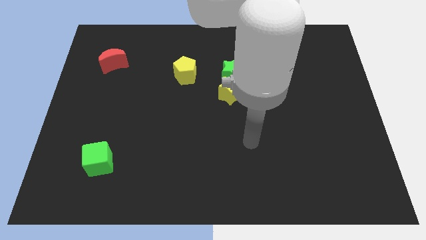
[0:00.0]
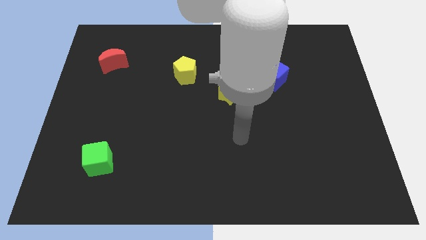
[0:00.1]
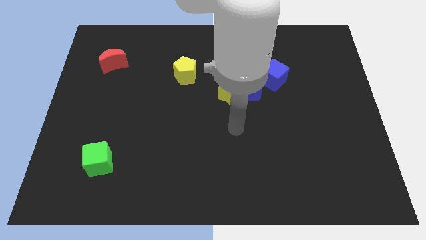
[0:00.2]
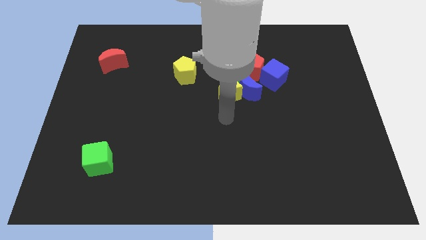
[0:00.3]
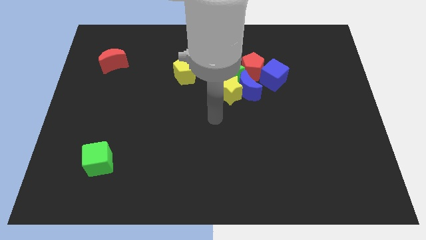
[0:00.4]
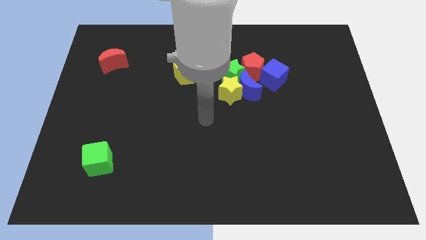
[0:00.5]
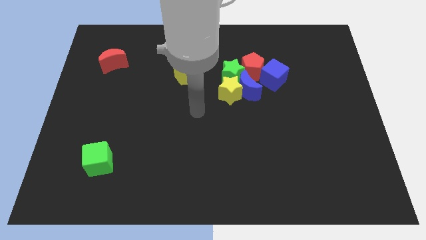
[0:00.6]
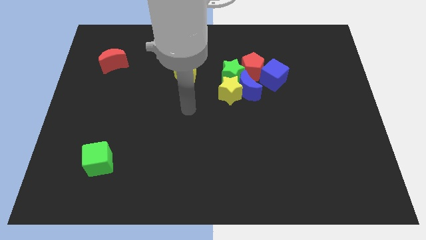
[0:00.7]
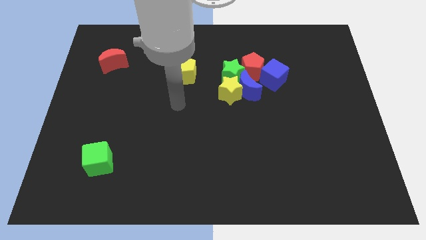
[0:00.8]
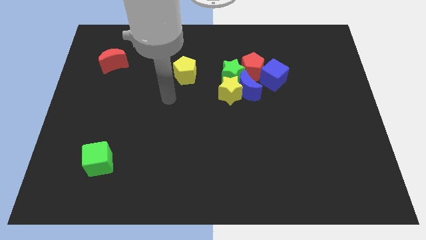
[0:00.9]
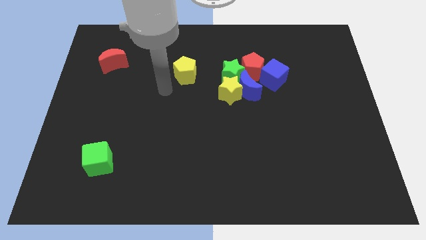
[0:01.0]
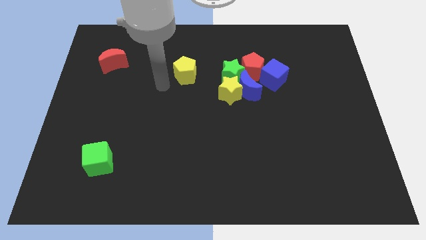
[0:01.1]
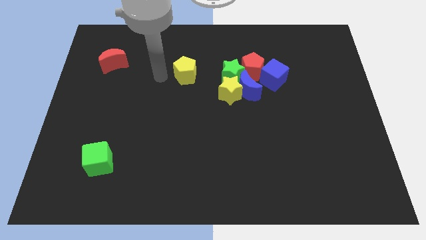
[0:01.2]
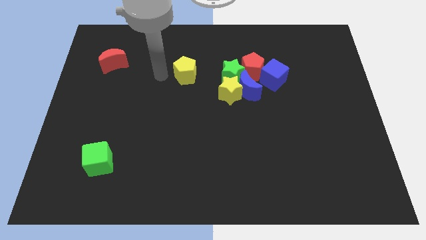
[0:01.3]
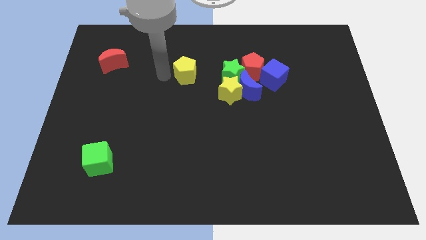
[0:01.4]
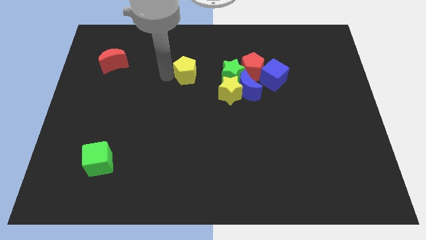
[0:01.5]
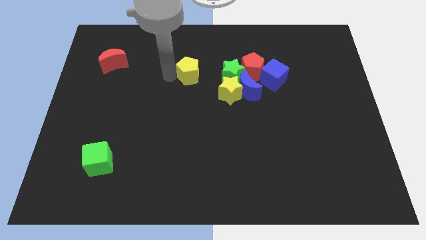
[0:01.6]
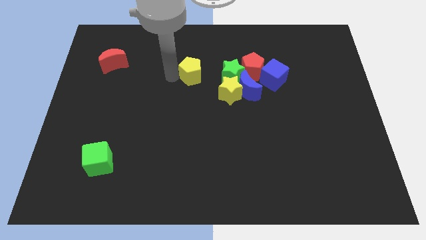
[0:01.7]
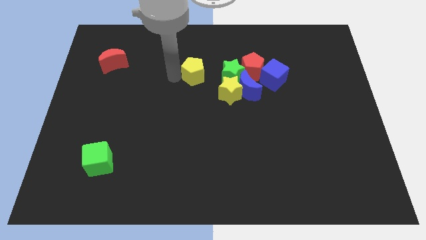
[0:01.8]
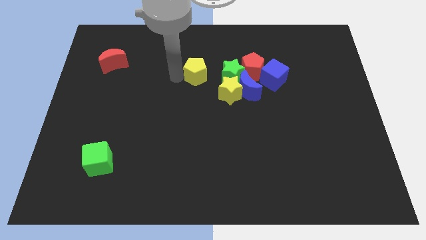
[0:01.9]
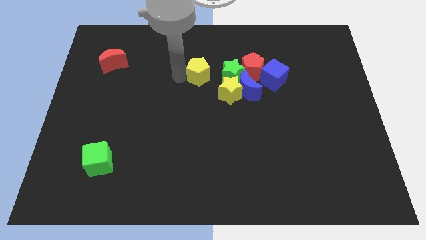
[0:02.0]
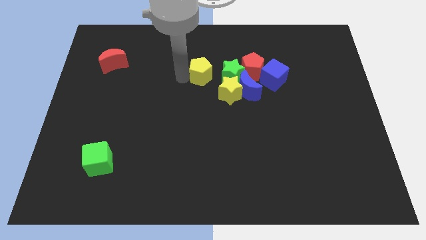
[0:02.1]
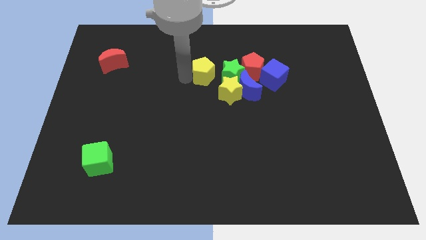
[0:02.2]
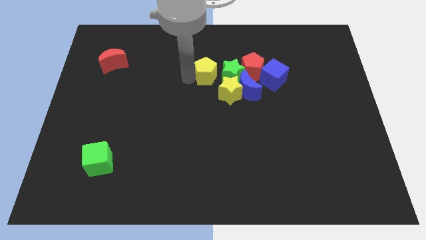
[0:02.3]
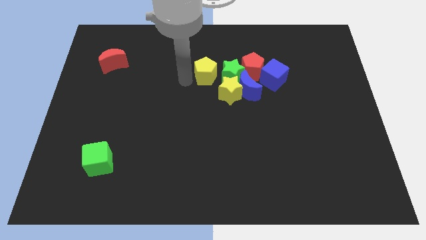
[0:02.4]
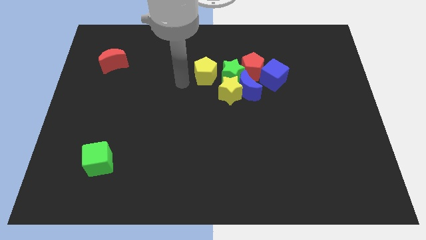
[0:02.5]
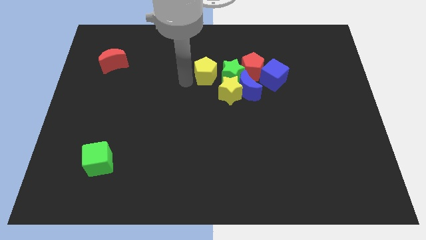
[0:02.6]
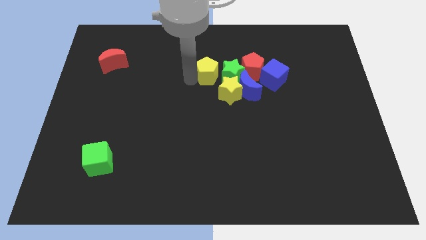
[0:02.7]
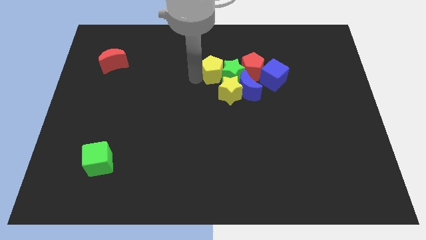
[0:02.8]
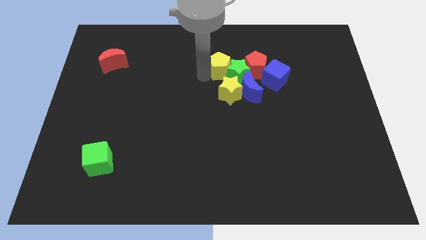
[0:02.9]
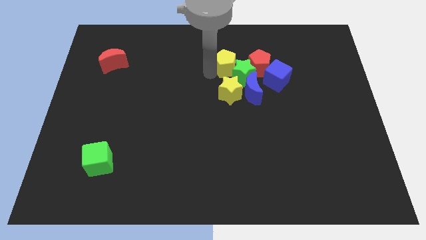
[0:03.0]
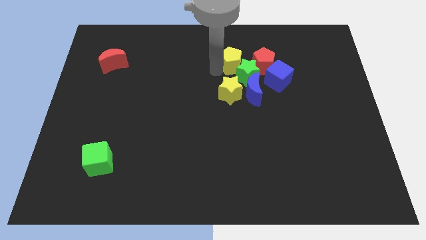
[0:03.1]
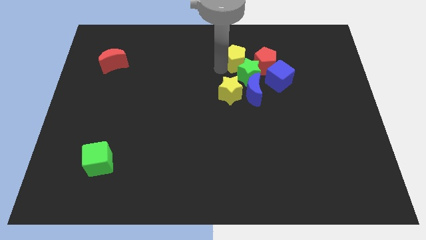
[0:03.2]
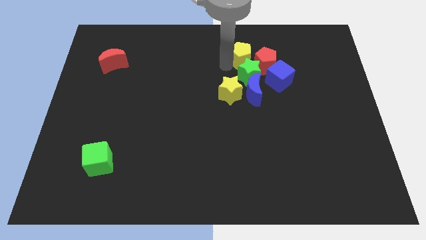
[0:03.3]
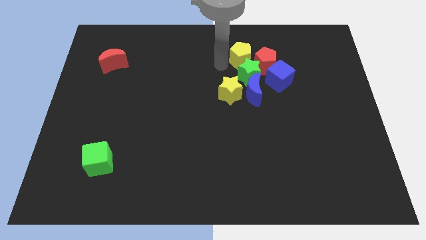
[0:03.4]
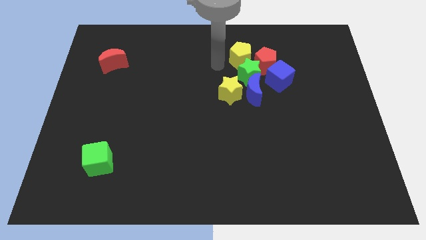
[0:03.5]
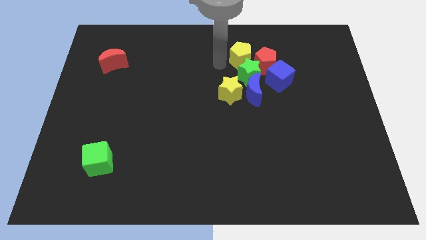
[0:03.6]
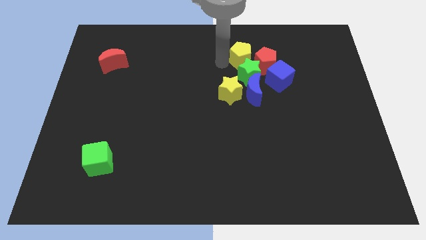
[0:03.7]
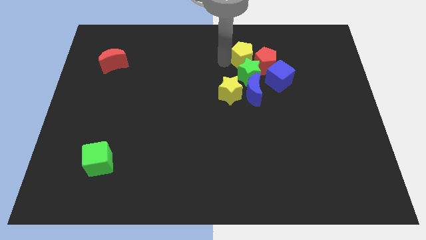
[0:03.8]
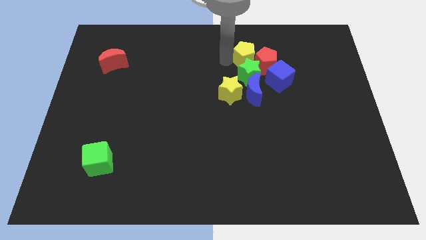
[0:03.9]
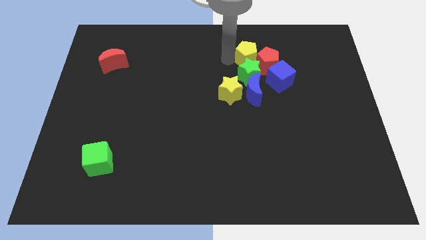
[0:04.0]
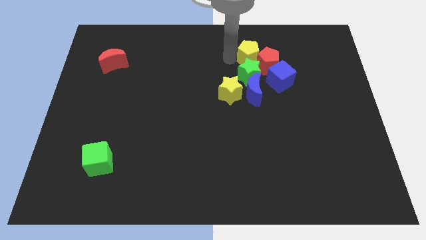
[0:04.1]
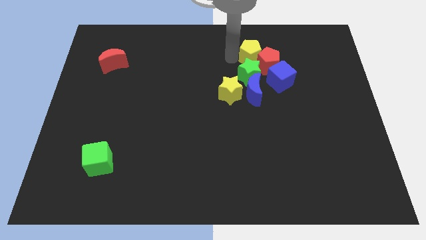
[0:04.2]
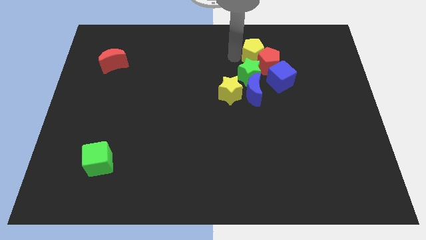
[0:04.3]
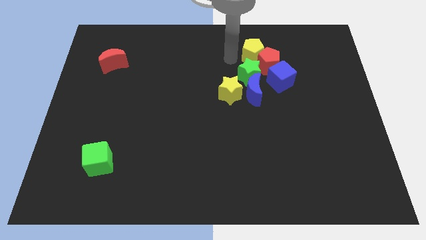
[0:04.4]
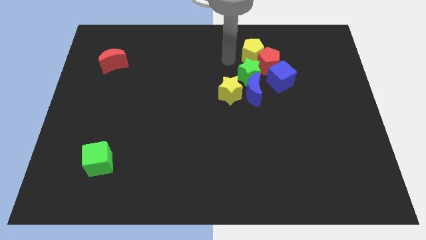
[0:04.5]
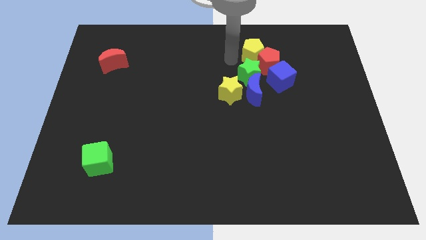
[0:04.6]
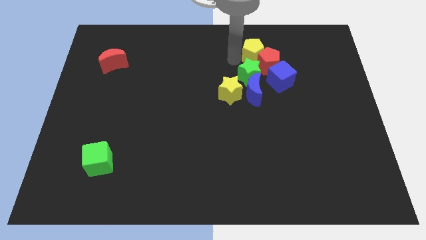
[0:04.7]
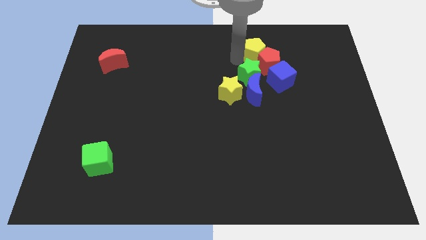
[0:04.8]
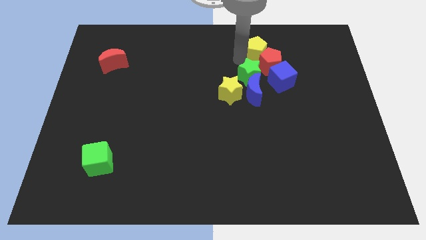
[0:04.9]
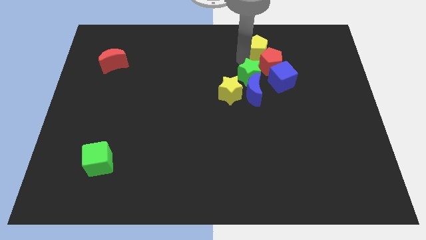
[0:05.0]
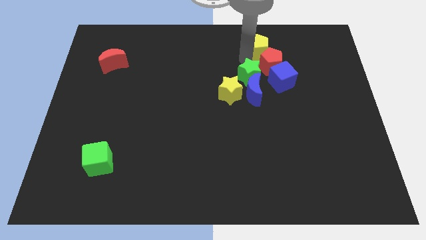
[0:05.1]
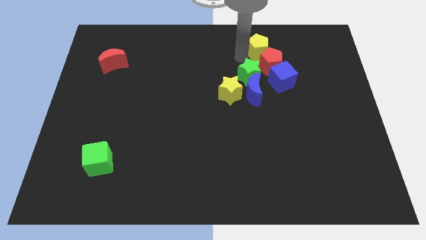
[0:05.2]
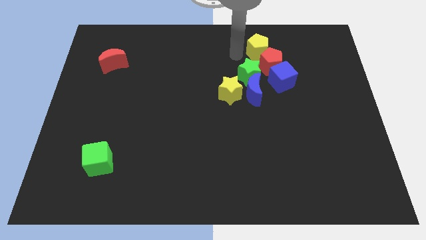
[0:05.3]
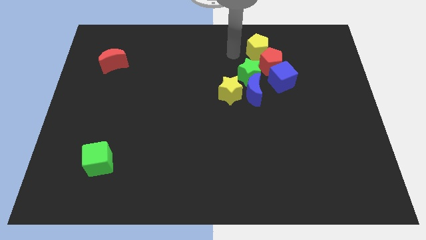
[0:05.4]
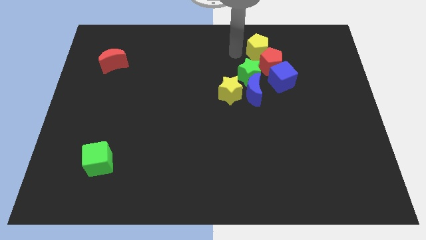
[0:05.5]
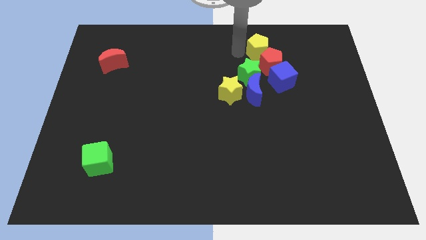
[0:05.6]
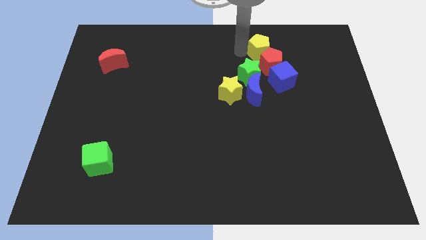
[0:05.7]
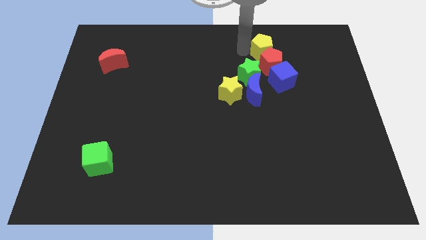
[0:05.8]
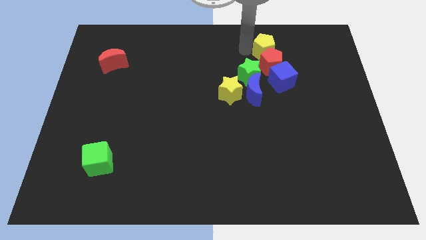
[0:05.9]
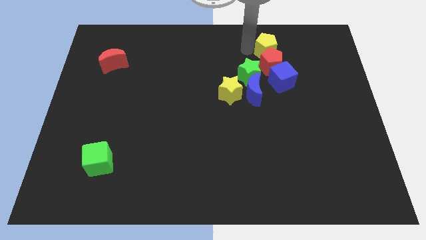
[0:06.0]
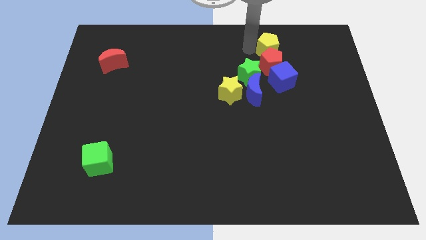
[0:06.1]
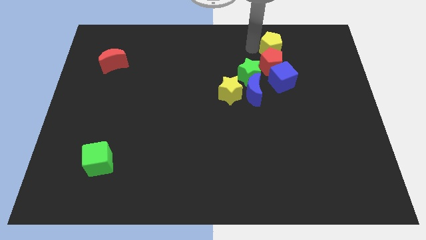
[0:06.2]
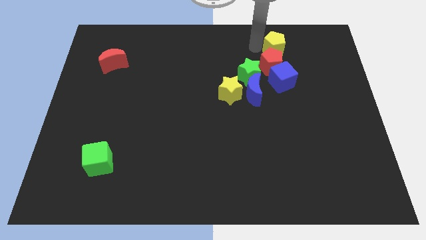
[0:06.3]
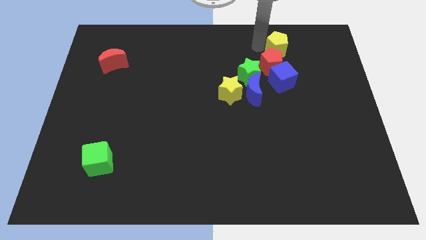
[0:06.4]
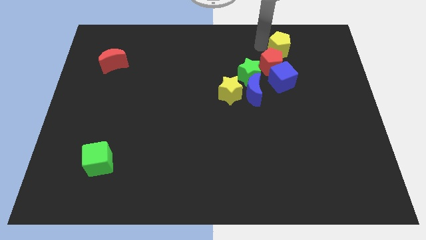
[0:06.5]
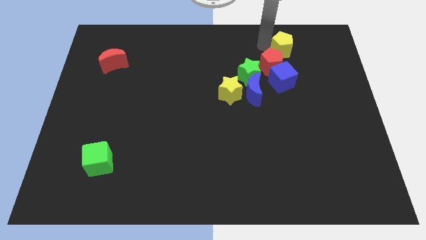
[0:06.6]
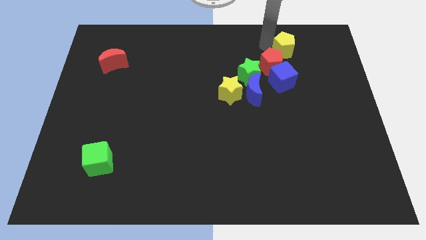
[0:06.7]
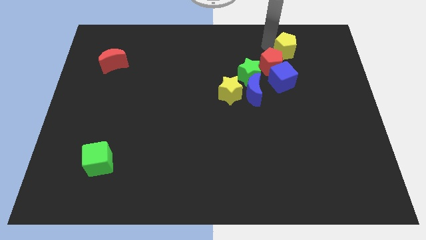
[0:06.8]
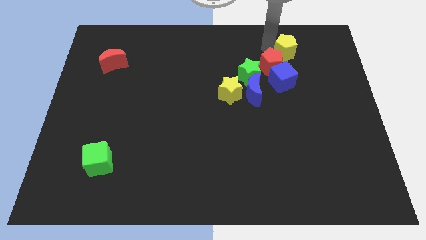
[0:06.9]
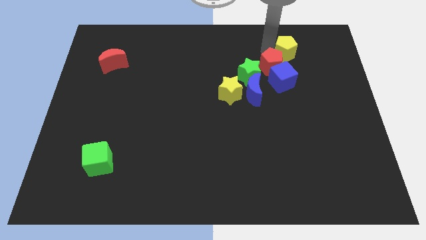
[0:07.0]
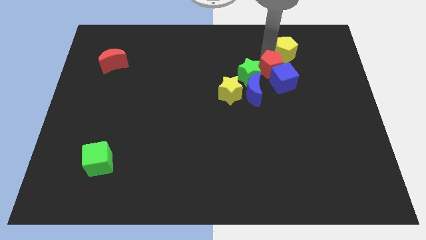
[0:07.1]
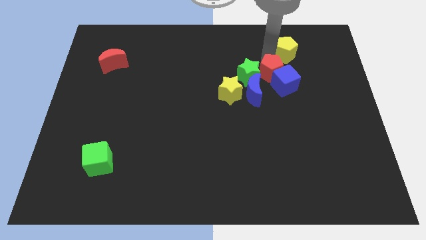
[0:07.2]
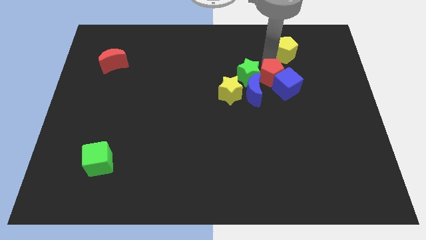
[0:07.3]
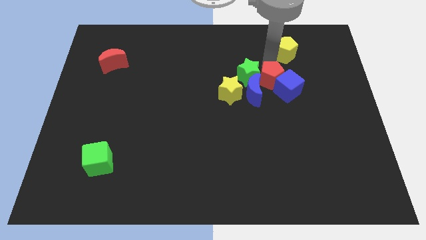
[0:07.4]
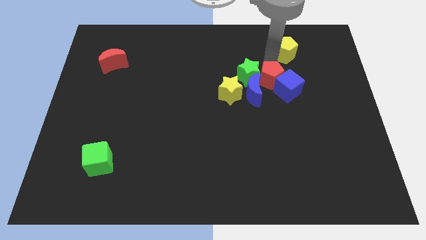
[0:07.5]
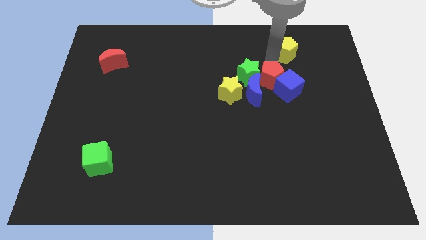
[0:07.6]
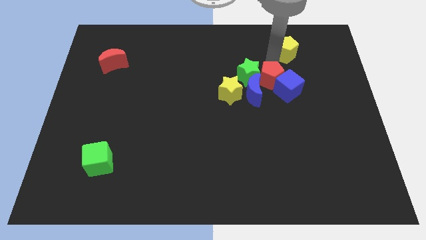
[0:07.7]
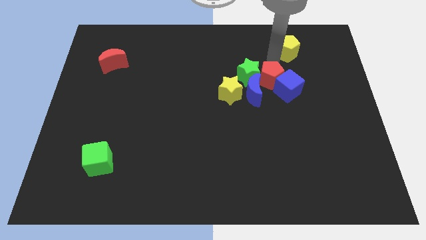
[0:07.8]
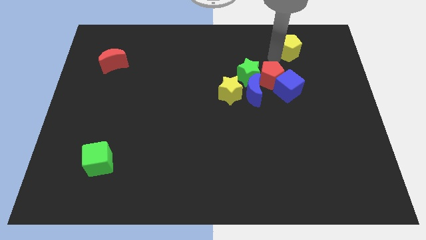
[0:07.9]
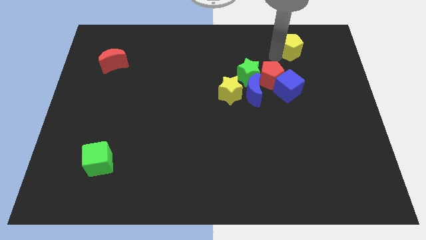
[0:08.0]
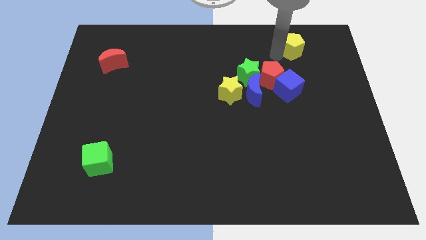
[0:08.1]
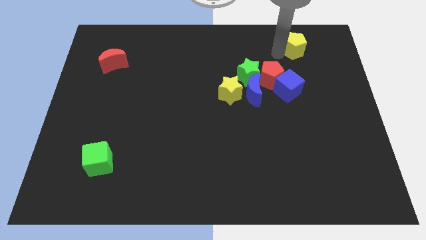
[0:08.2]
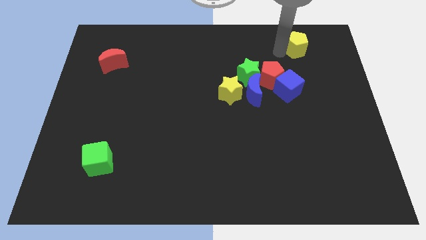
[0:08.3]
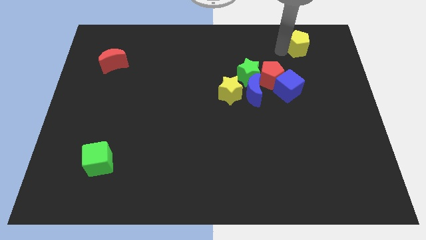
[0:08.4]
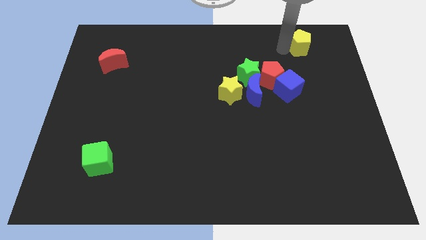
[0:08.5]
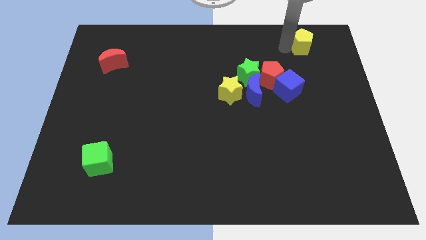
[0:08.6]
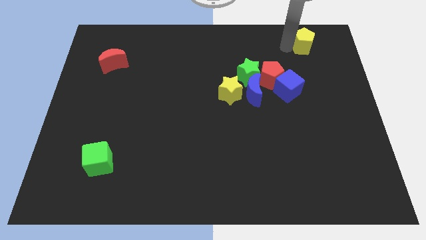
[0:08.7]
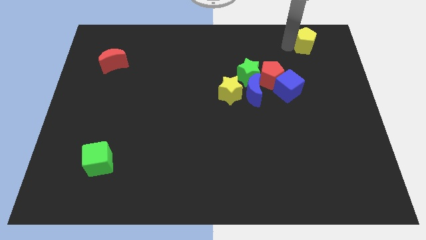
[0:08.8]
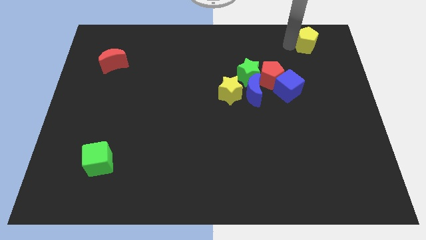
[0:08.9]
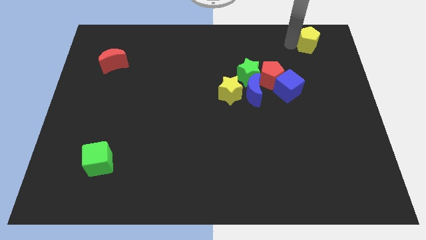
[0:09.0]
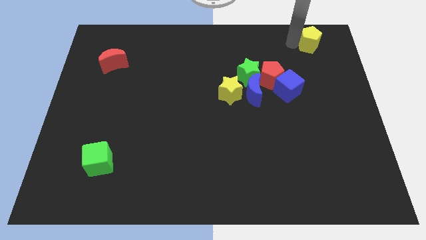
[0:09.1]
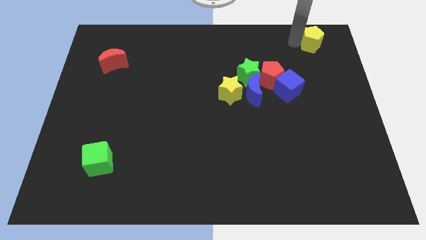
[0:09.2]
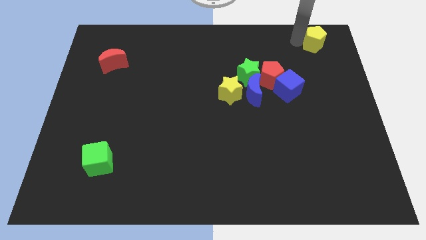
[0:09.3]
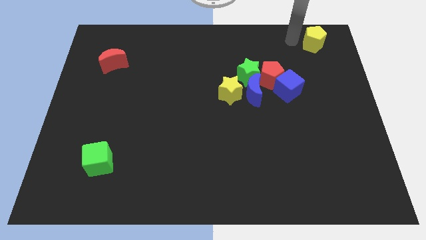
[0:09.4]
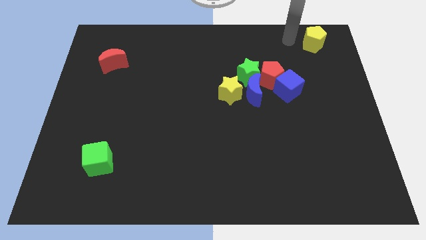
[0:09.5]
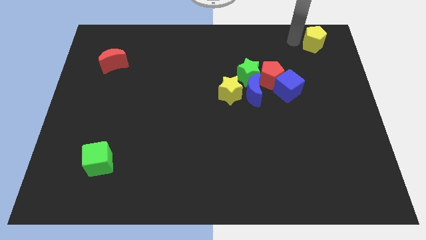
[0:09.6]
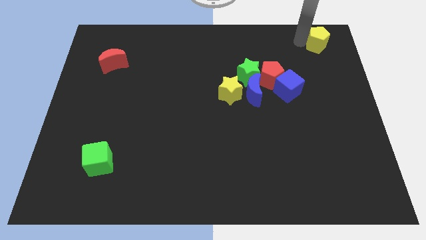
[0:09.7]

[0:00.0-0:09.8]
push the yellow pentagon to the top right
